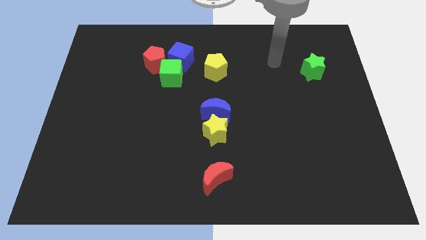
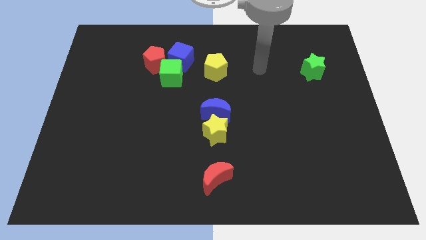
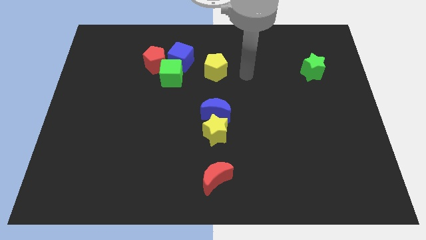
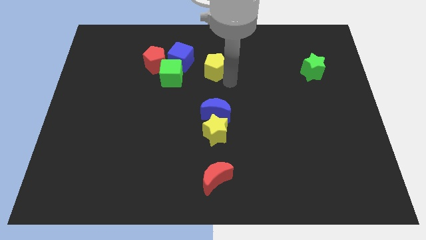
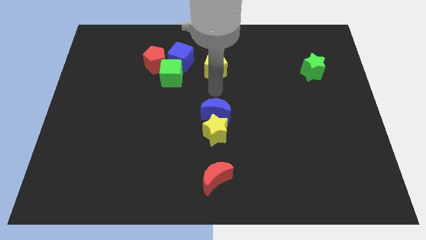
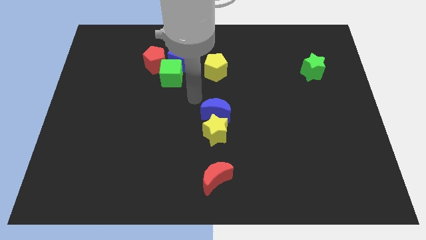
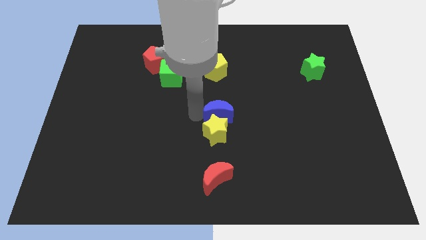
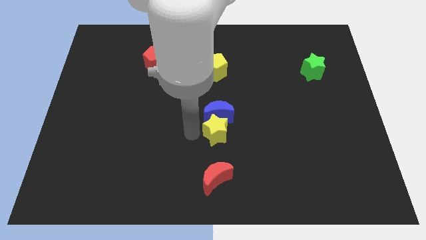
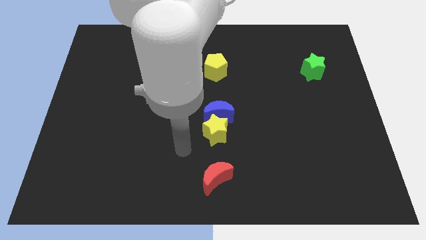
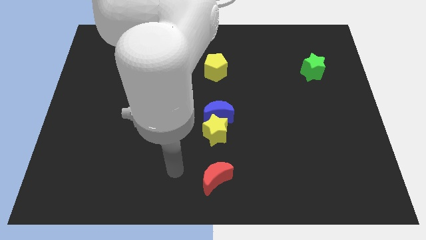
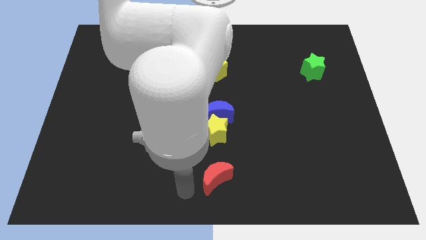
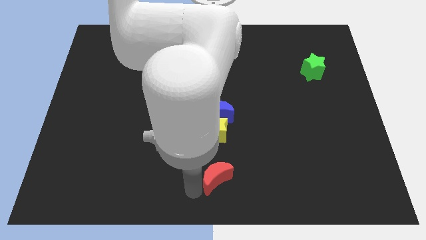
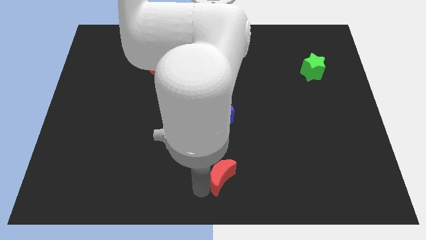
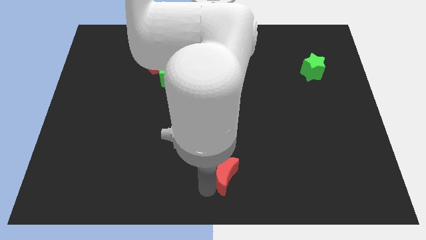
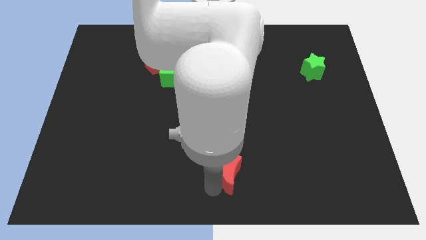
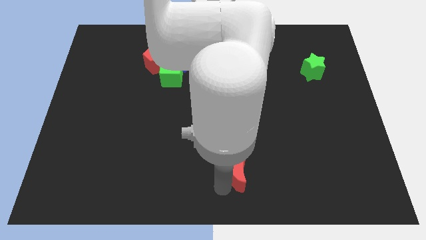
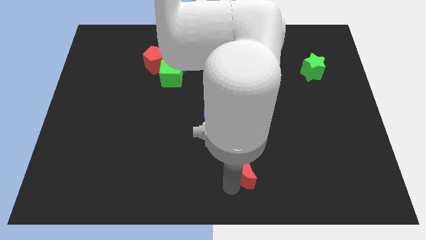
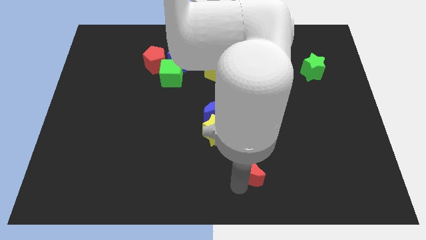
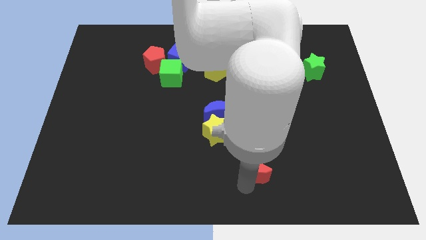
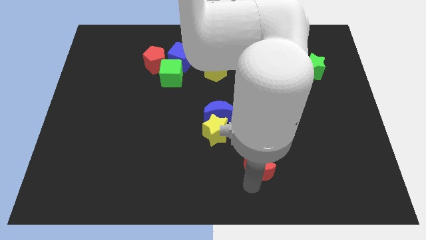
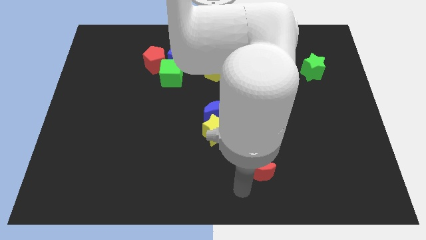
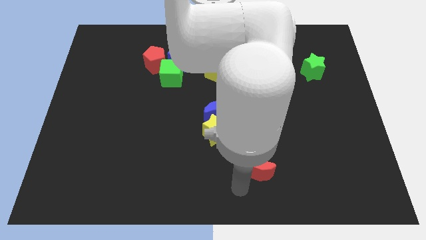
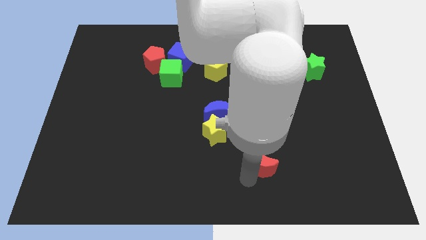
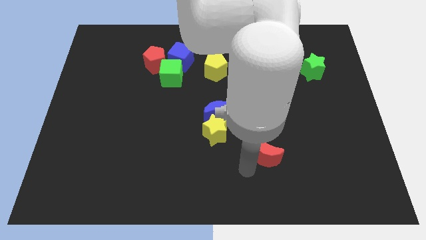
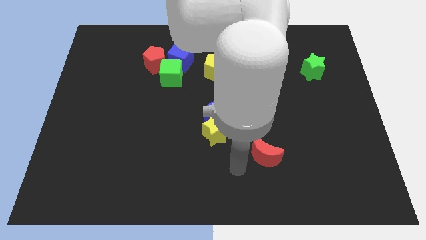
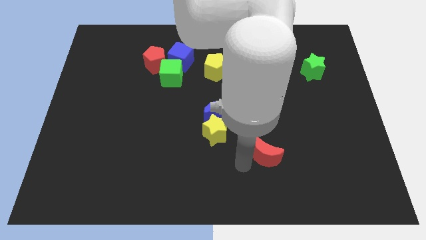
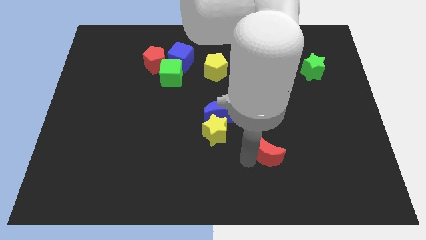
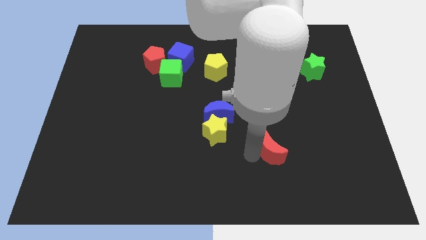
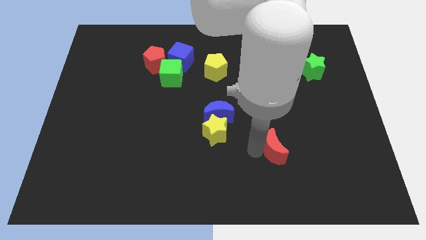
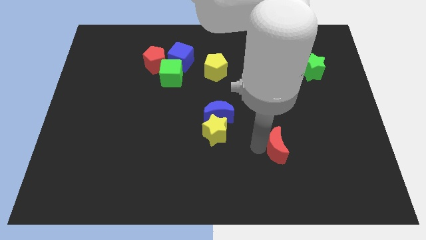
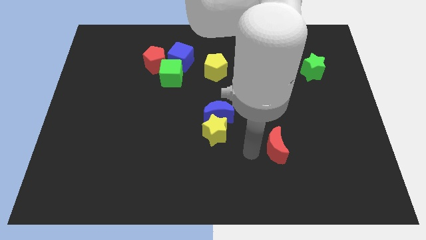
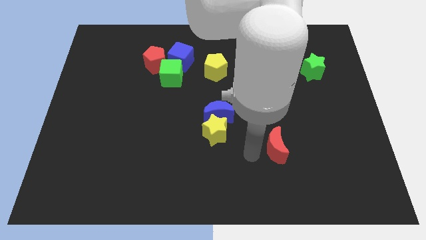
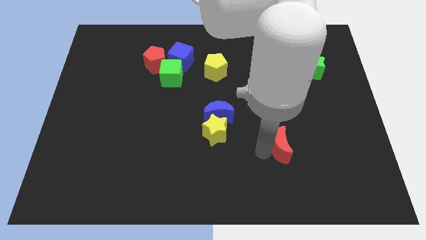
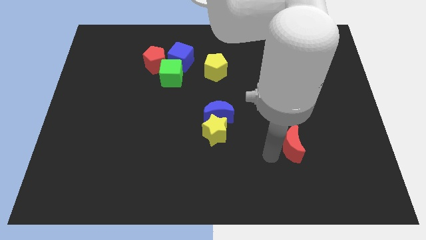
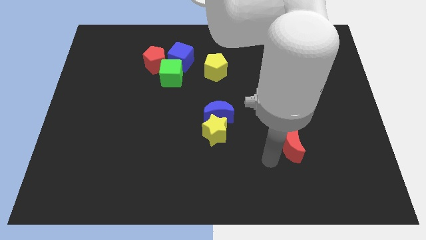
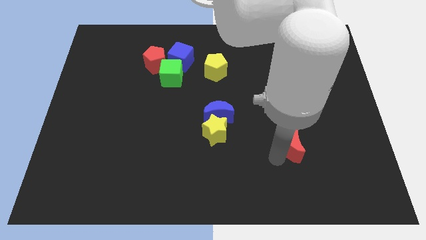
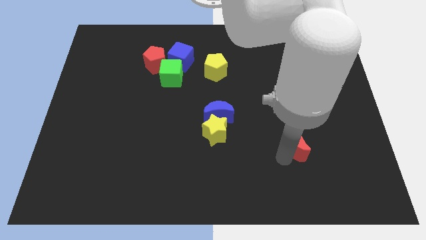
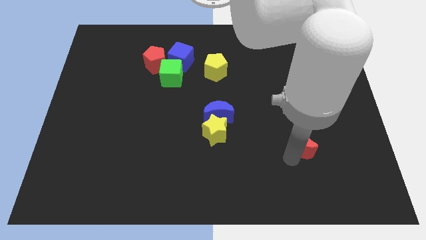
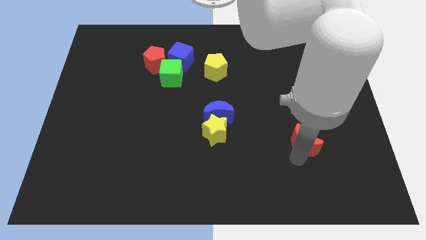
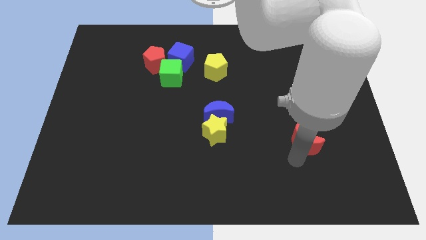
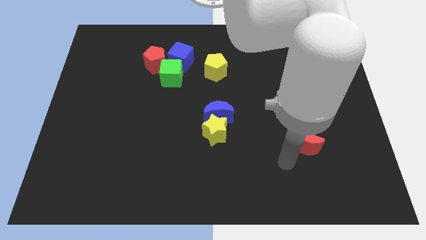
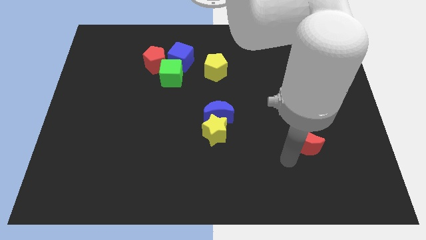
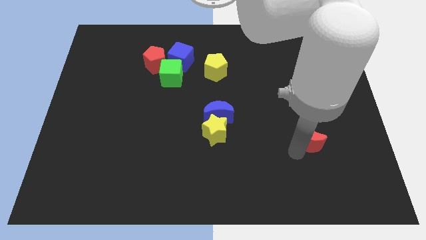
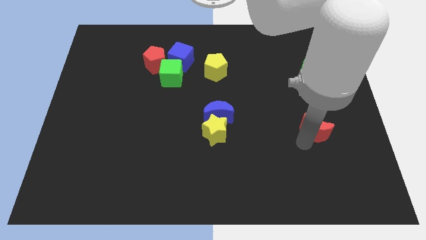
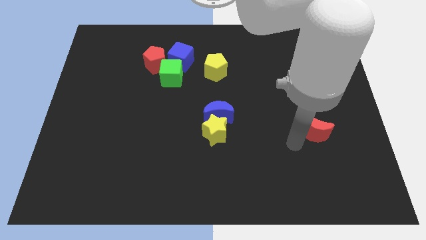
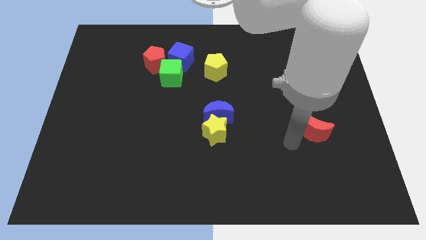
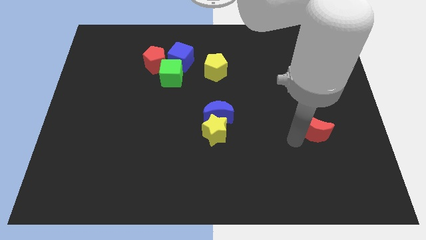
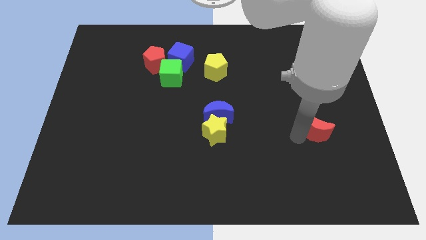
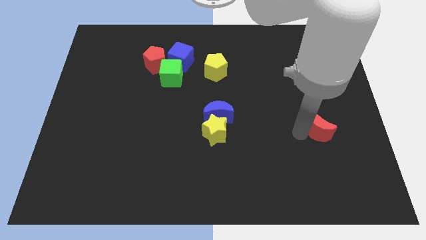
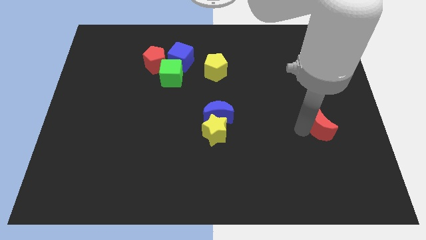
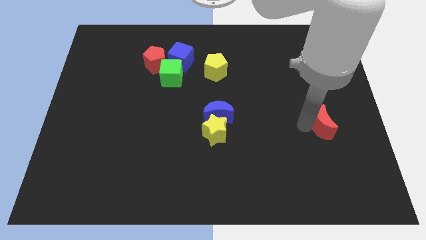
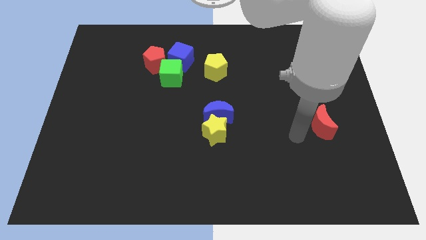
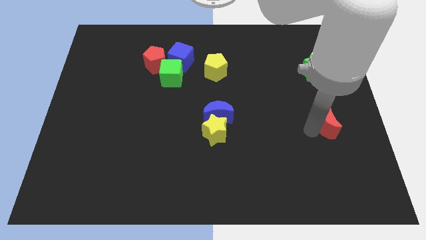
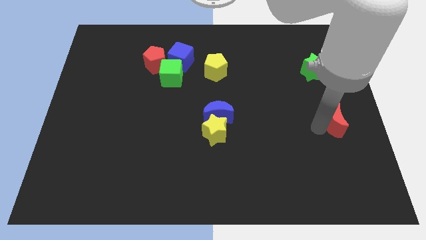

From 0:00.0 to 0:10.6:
push the red moon to the right side

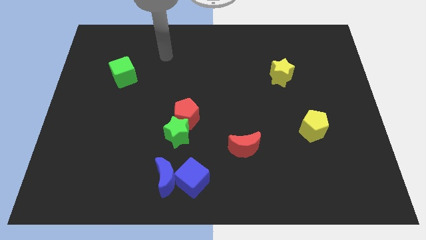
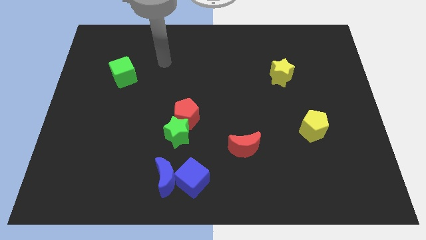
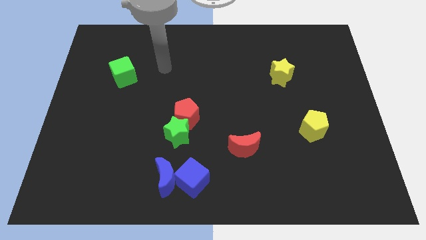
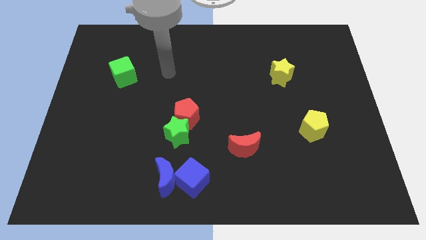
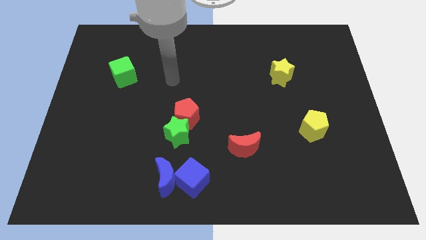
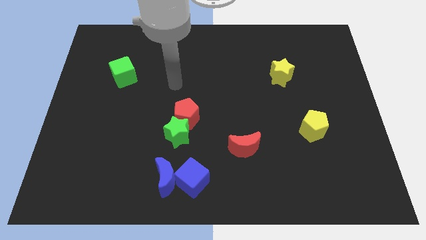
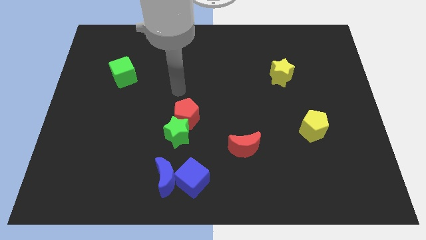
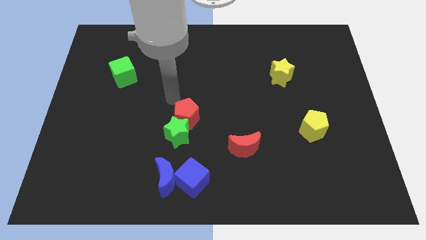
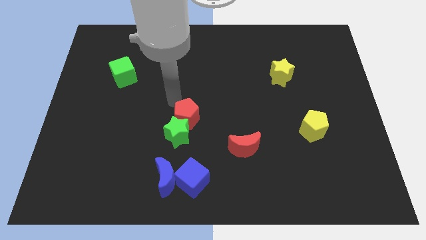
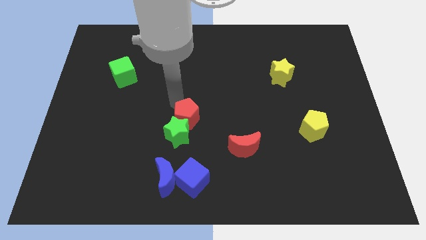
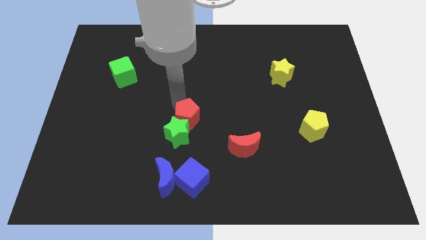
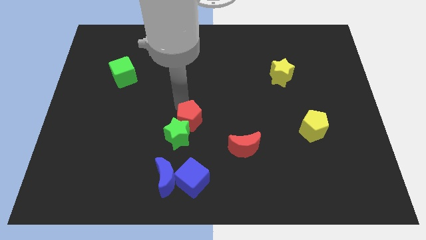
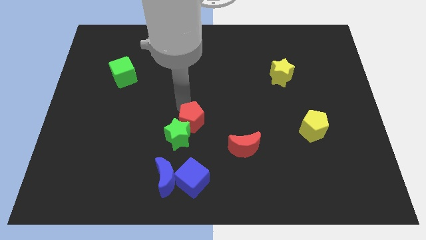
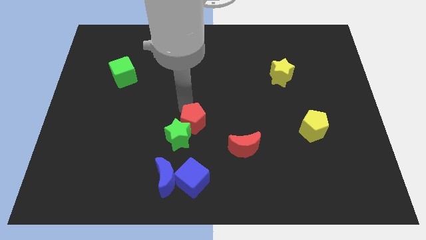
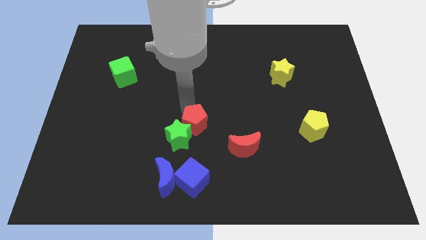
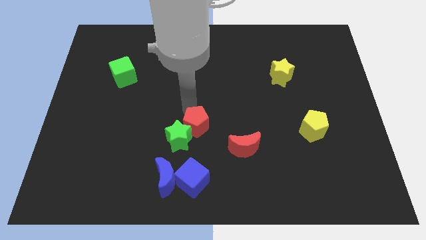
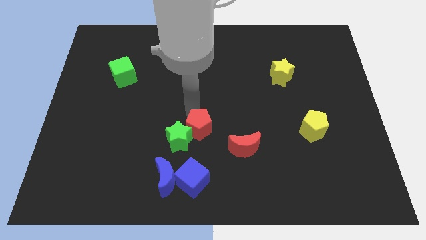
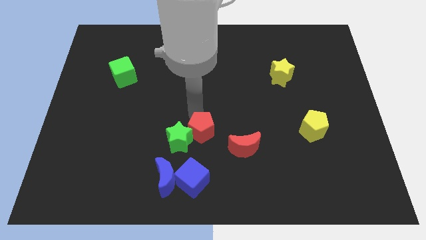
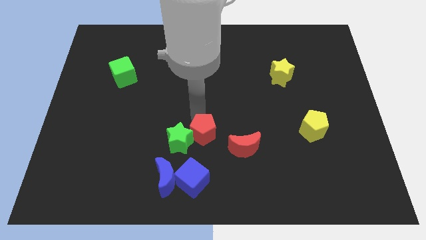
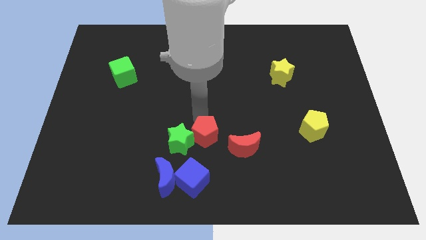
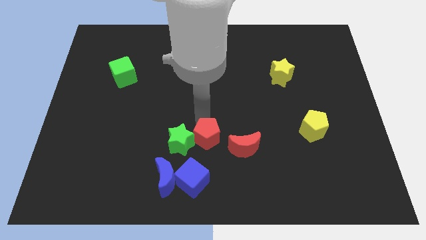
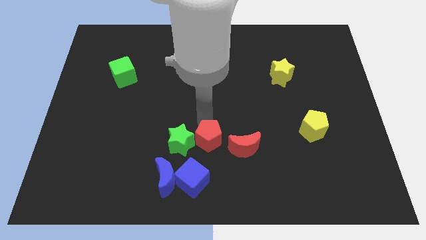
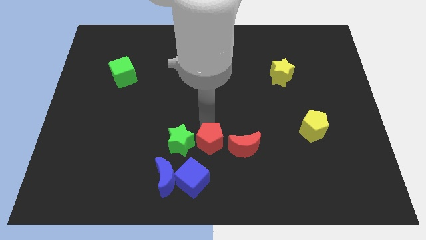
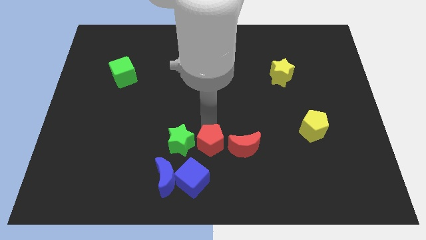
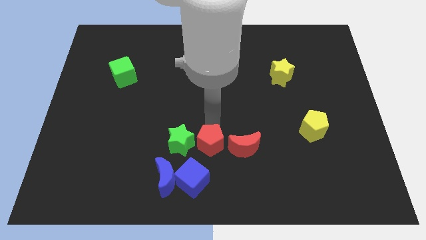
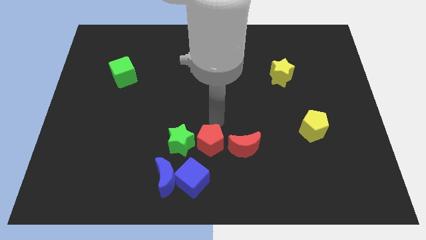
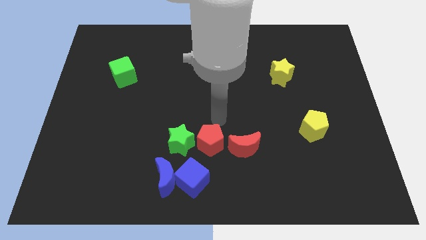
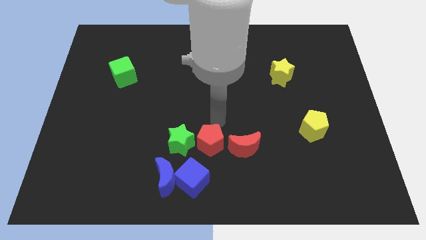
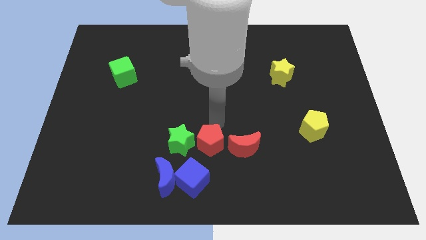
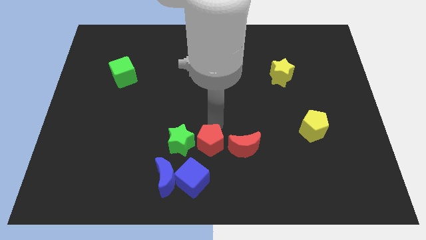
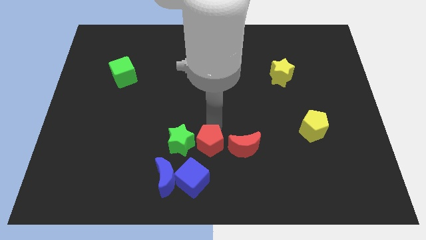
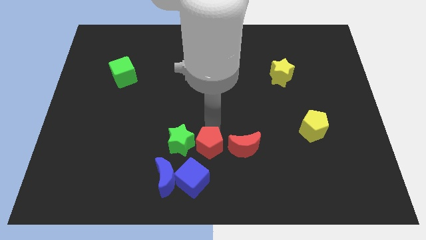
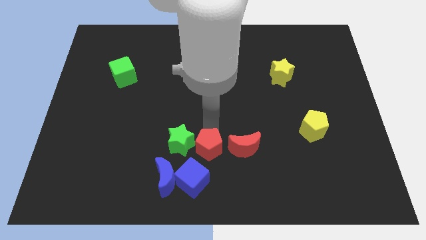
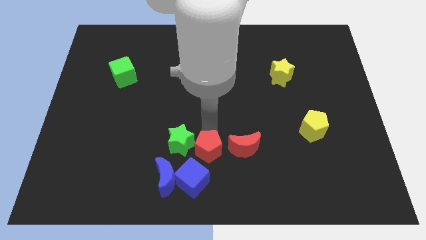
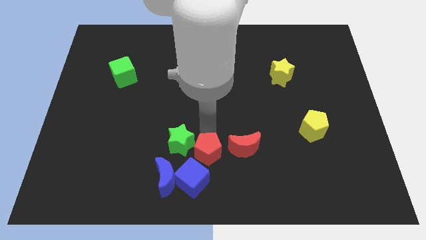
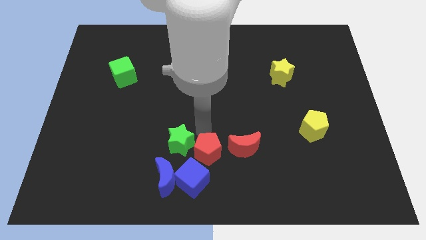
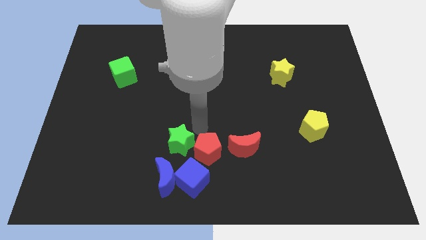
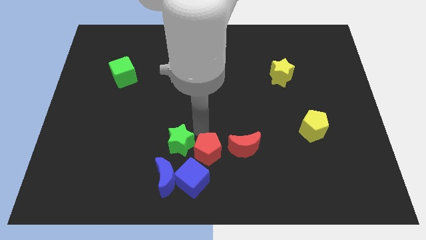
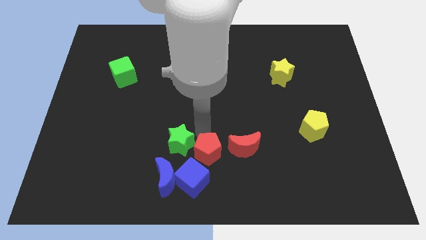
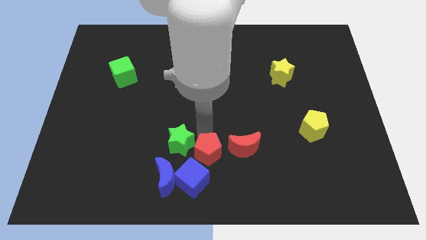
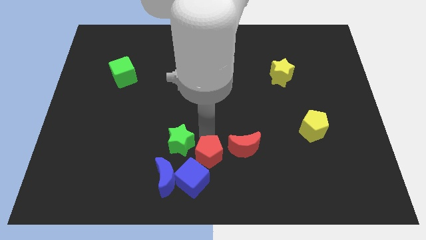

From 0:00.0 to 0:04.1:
move the red pentagon to the bottom side
